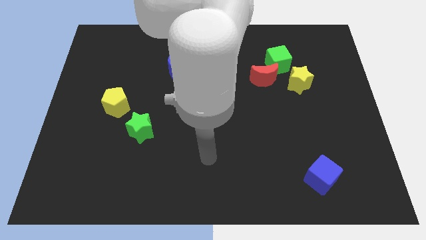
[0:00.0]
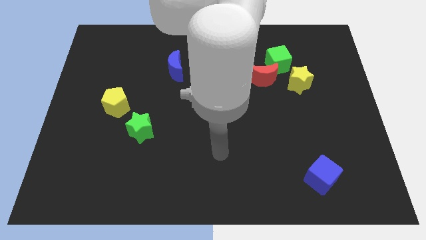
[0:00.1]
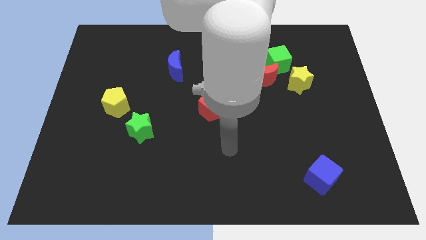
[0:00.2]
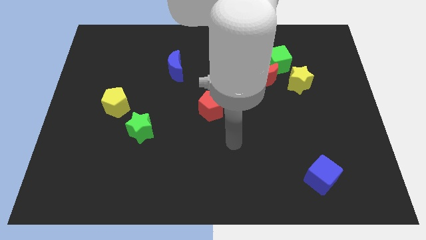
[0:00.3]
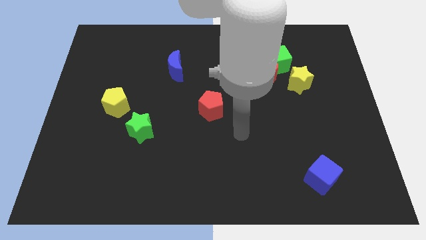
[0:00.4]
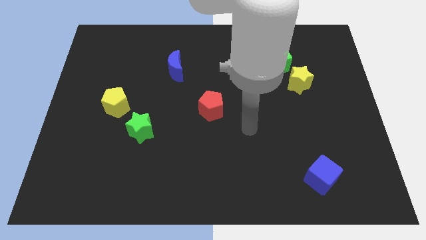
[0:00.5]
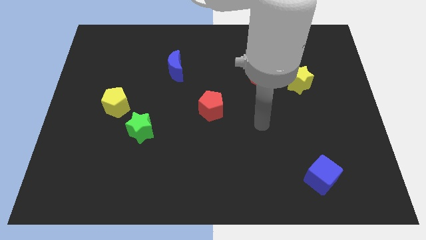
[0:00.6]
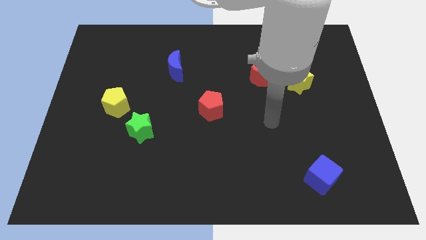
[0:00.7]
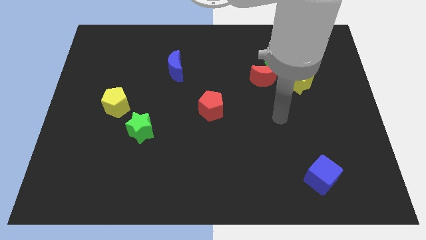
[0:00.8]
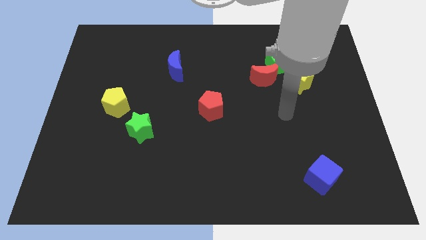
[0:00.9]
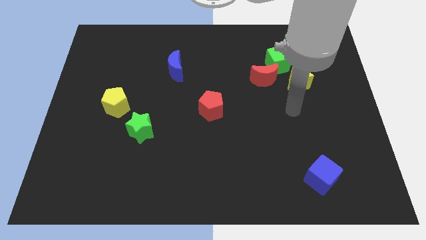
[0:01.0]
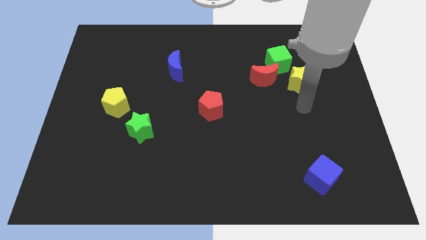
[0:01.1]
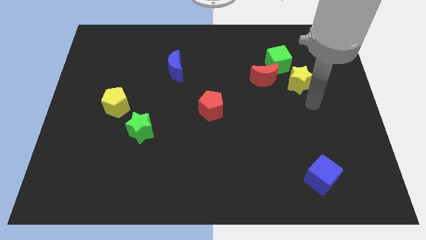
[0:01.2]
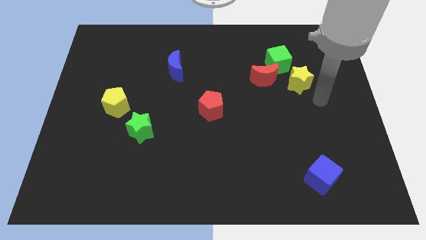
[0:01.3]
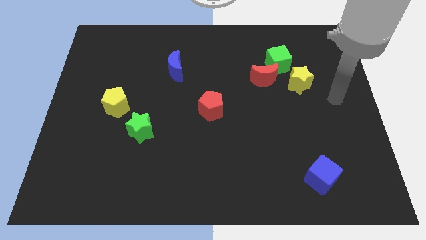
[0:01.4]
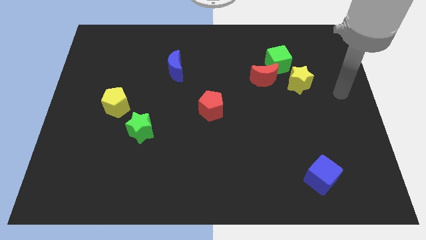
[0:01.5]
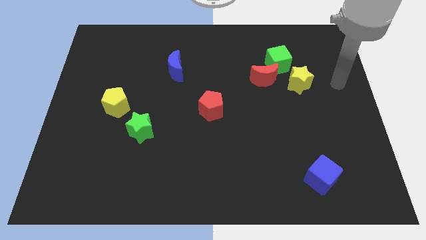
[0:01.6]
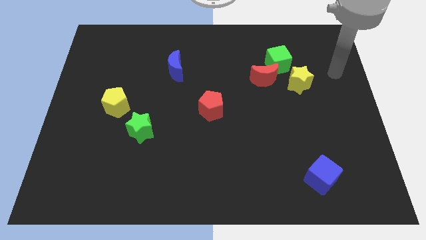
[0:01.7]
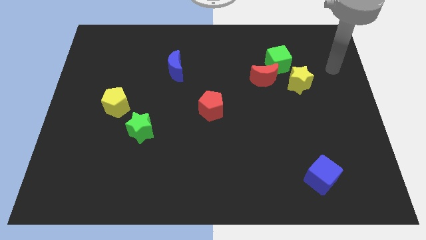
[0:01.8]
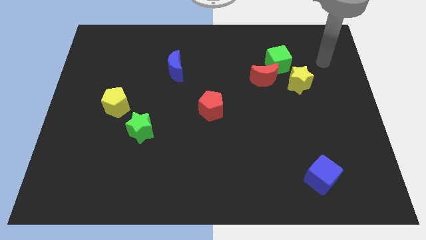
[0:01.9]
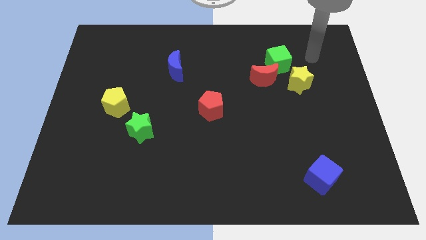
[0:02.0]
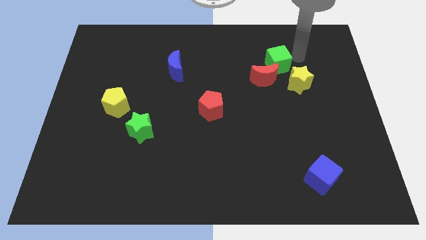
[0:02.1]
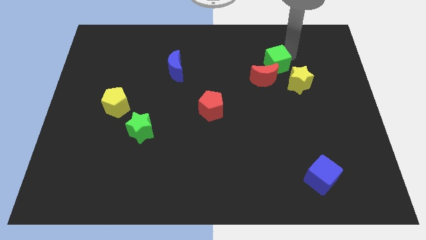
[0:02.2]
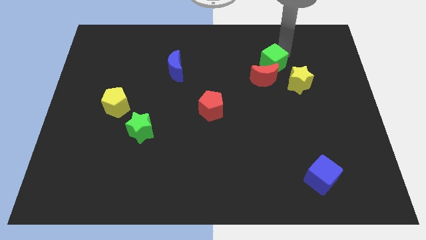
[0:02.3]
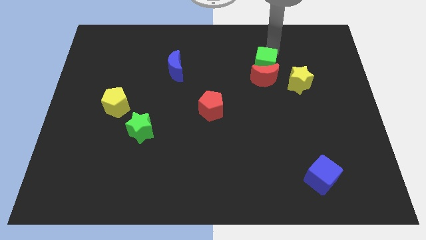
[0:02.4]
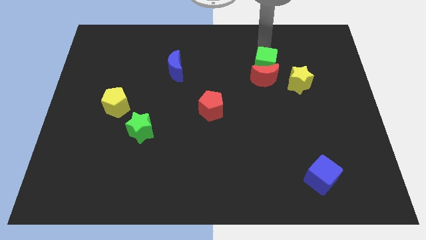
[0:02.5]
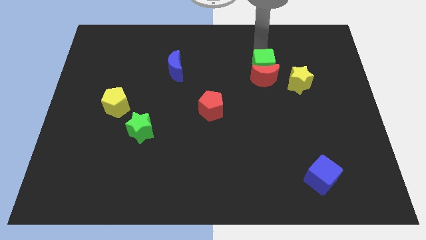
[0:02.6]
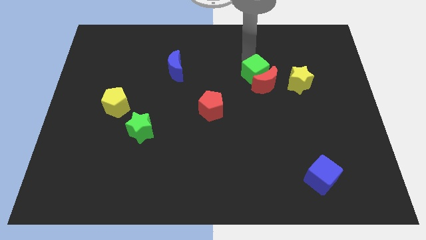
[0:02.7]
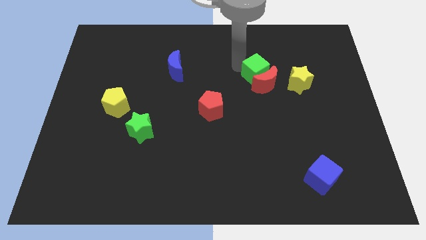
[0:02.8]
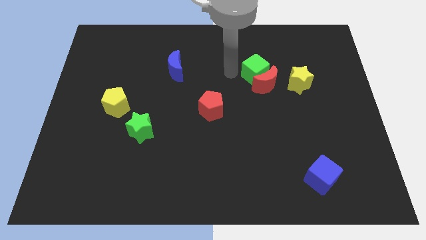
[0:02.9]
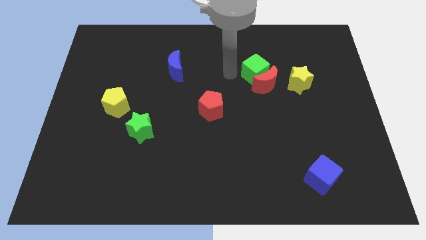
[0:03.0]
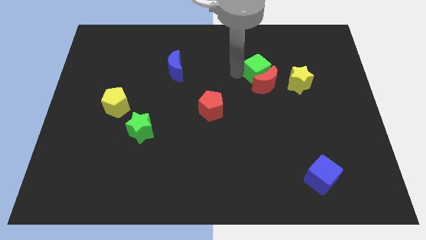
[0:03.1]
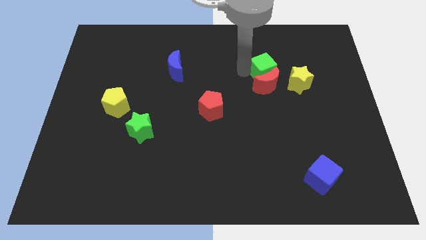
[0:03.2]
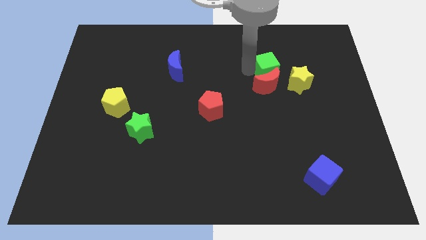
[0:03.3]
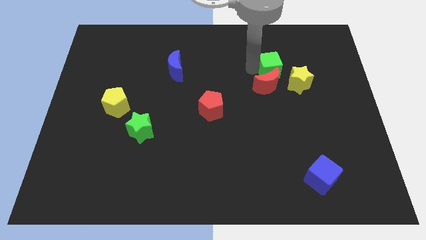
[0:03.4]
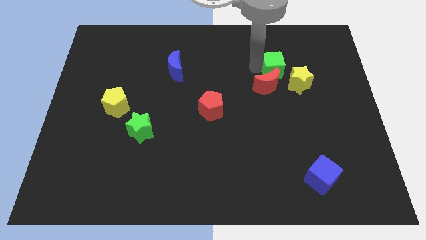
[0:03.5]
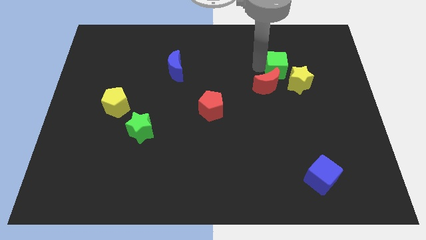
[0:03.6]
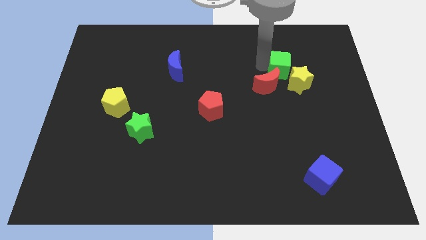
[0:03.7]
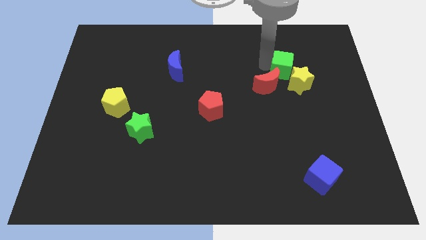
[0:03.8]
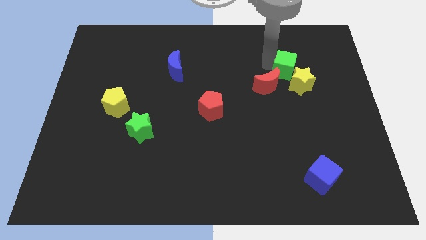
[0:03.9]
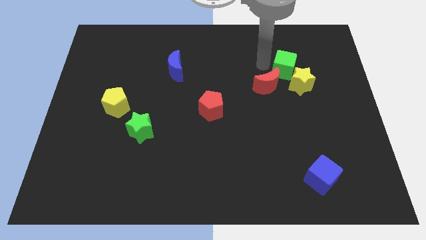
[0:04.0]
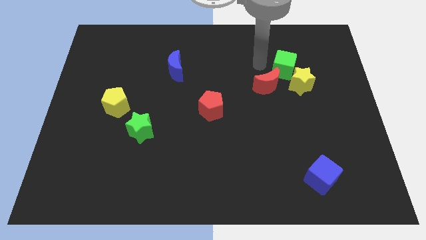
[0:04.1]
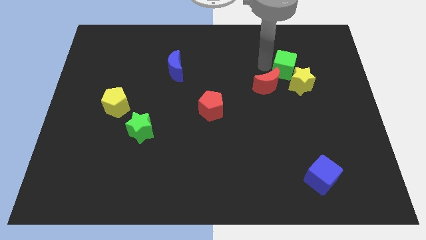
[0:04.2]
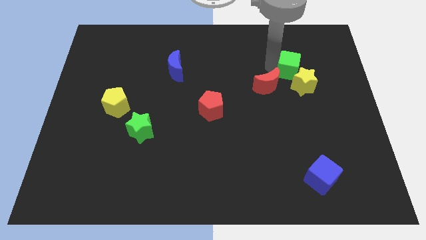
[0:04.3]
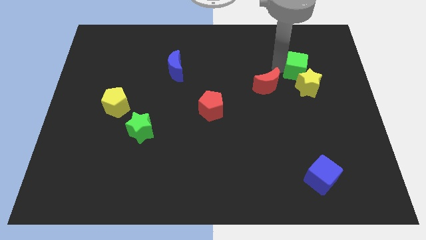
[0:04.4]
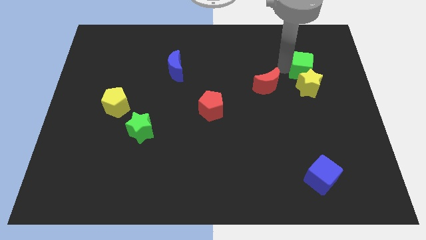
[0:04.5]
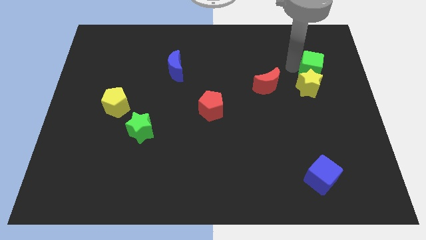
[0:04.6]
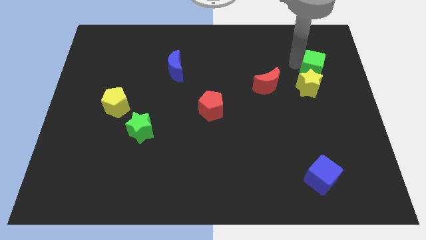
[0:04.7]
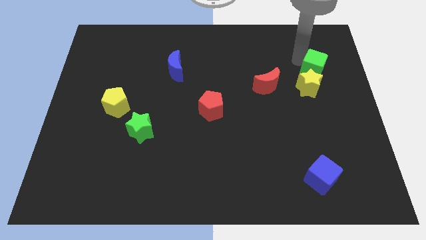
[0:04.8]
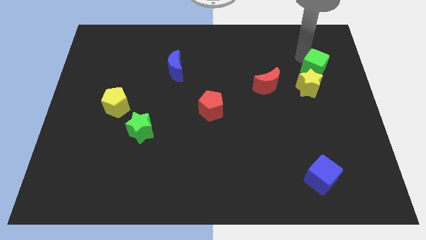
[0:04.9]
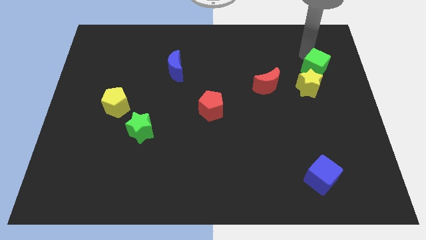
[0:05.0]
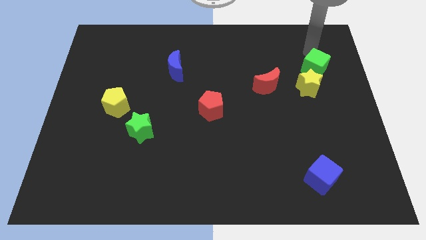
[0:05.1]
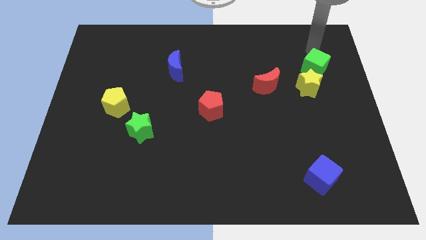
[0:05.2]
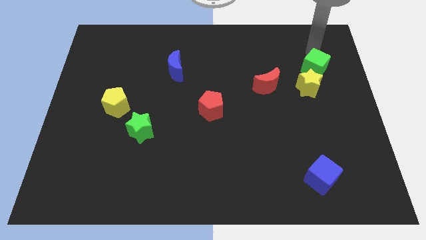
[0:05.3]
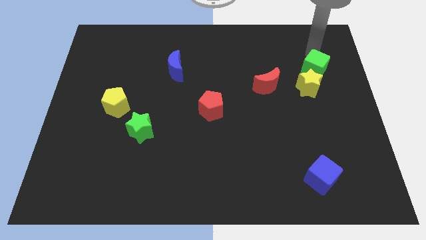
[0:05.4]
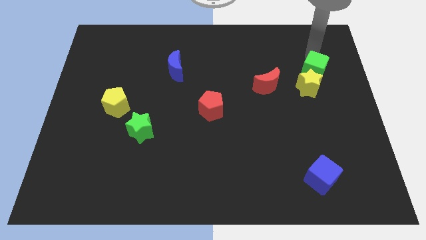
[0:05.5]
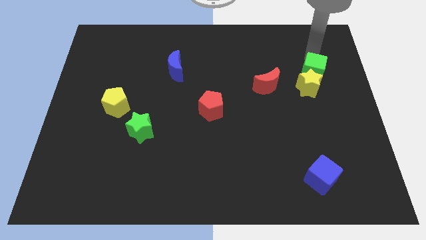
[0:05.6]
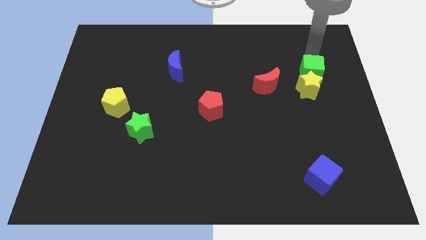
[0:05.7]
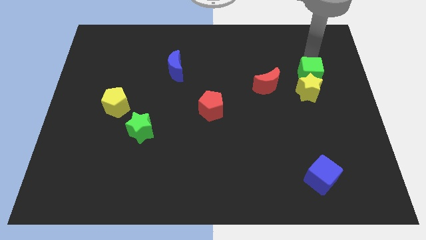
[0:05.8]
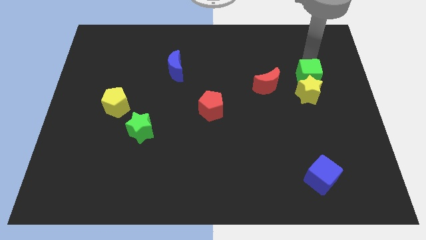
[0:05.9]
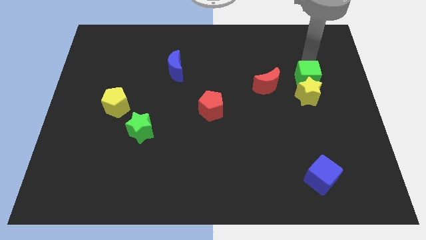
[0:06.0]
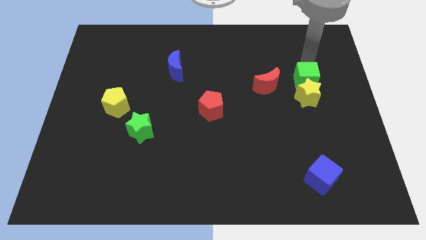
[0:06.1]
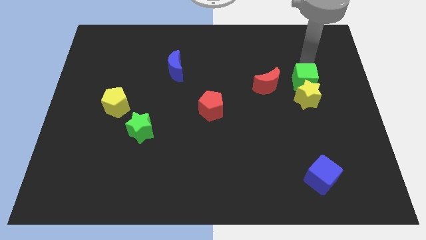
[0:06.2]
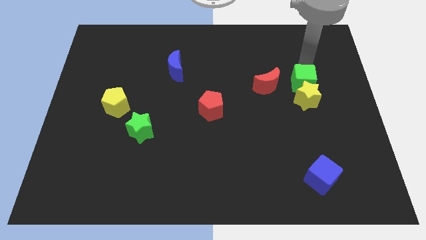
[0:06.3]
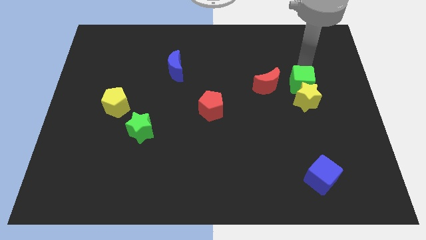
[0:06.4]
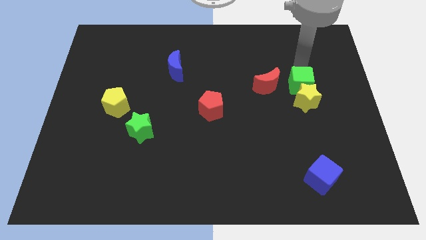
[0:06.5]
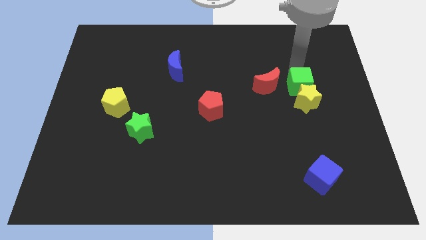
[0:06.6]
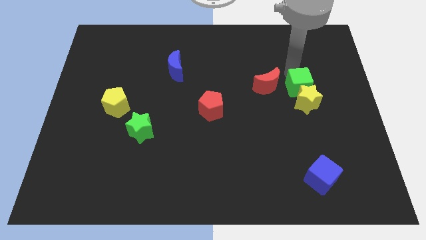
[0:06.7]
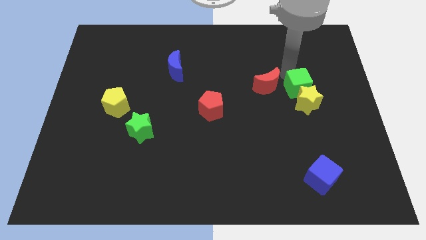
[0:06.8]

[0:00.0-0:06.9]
push the green cube diagonally down and to the right of the red moon

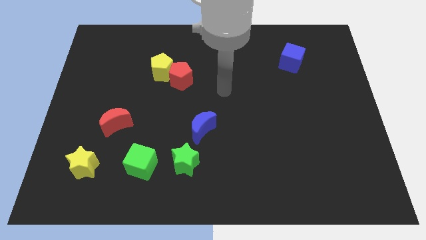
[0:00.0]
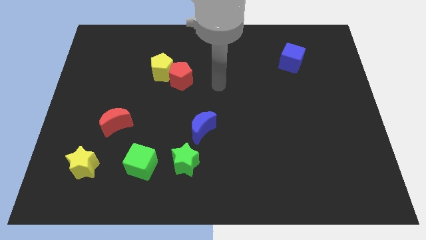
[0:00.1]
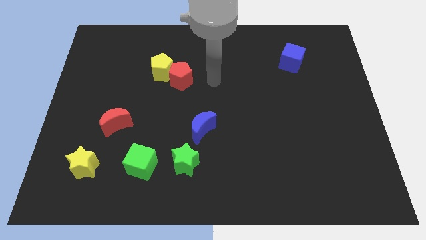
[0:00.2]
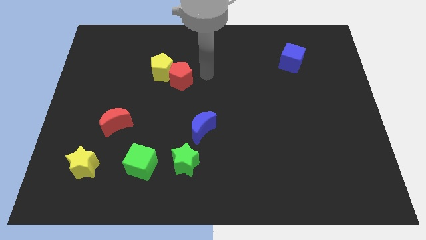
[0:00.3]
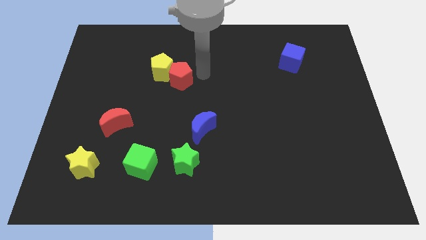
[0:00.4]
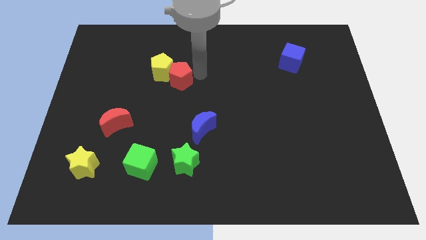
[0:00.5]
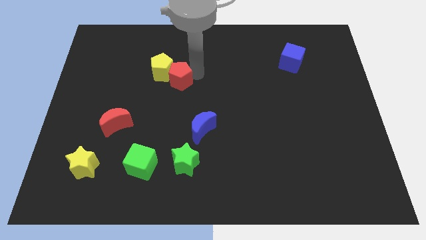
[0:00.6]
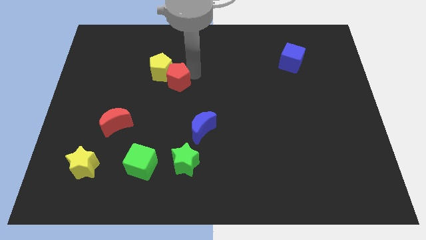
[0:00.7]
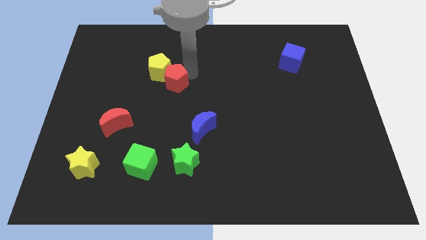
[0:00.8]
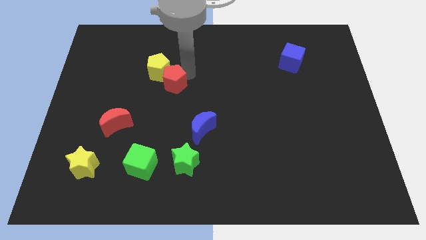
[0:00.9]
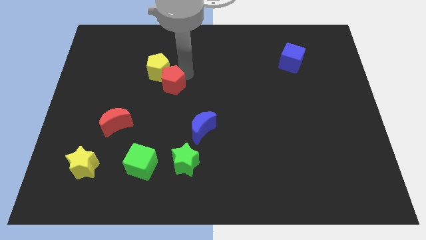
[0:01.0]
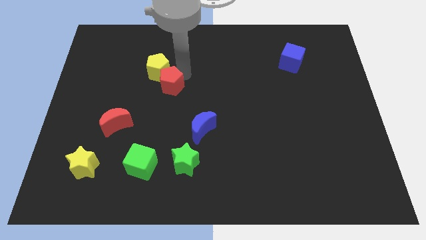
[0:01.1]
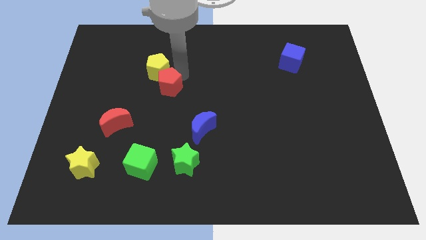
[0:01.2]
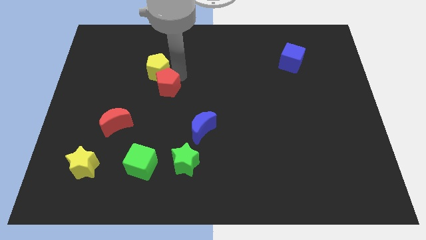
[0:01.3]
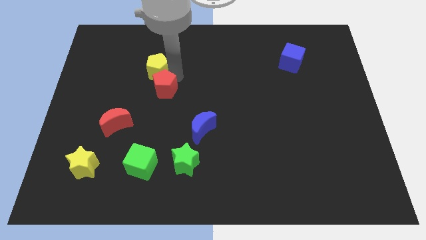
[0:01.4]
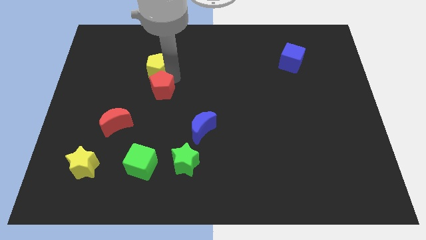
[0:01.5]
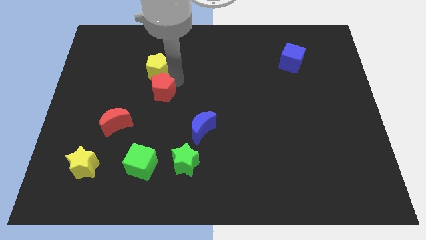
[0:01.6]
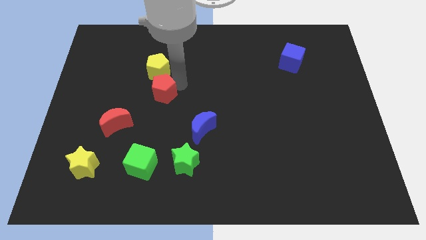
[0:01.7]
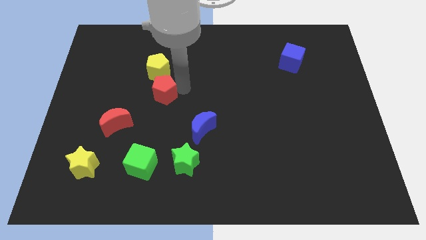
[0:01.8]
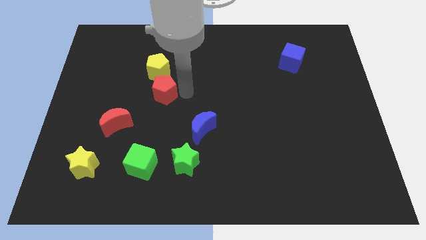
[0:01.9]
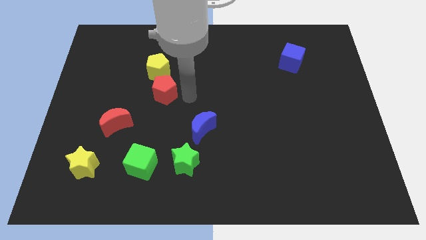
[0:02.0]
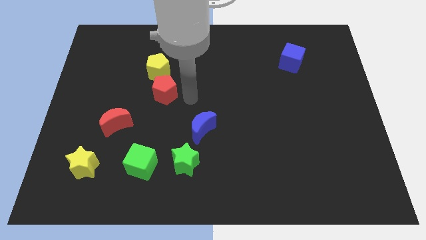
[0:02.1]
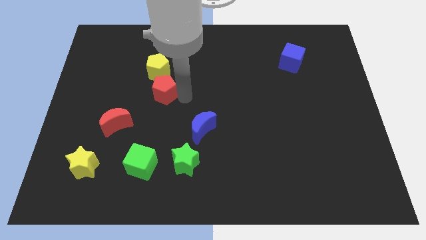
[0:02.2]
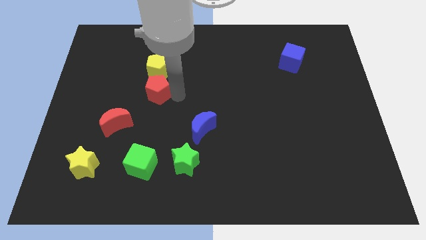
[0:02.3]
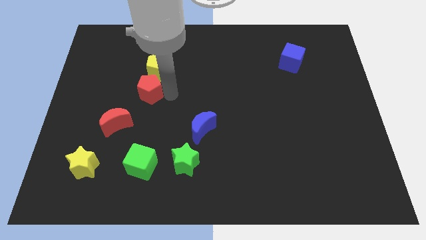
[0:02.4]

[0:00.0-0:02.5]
move the red pentagon diagonally down and to the left of the yellow pentagon
